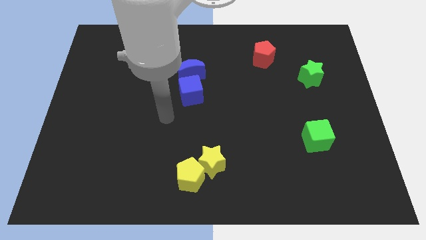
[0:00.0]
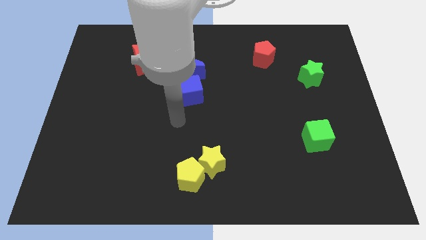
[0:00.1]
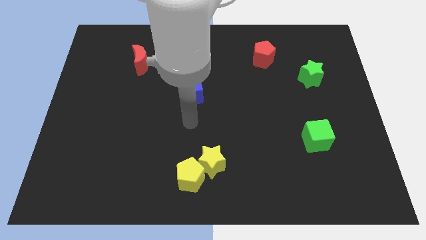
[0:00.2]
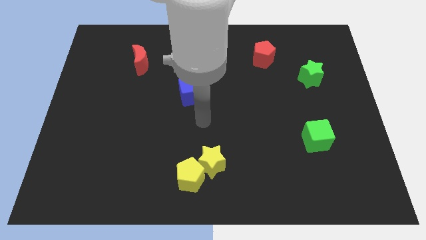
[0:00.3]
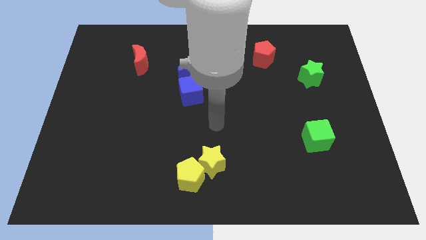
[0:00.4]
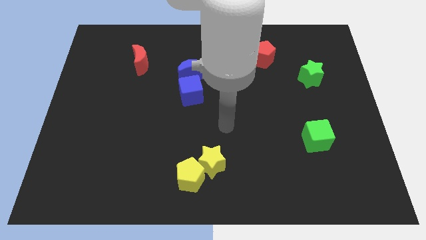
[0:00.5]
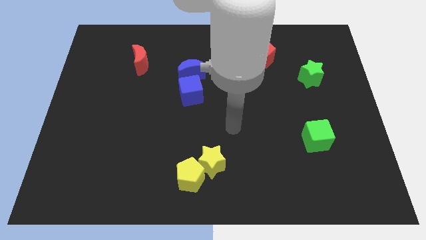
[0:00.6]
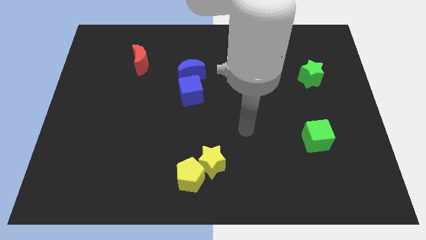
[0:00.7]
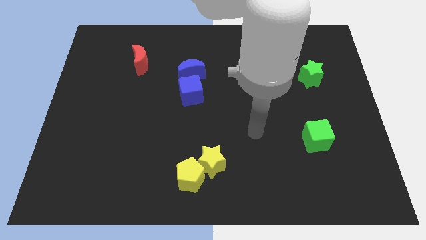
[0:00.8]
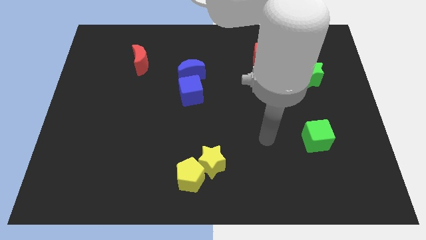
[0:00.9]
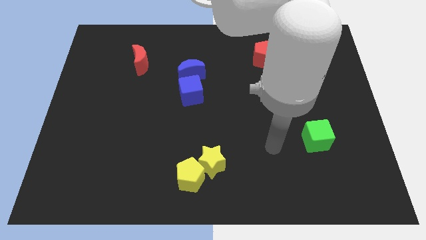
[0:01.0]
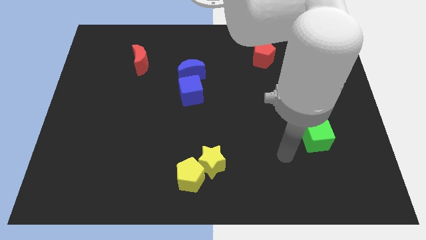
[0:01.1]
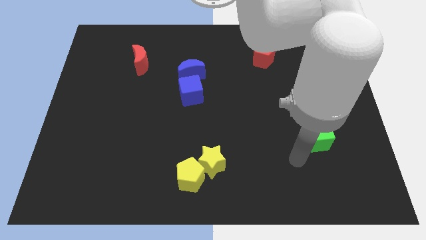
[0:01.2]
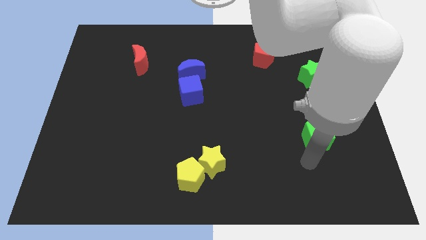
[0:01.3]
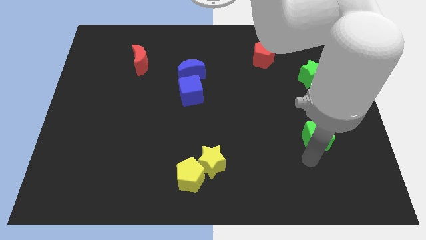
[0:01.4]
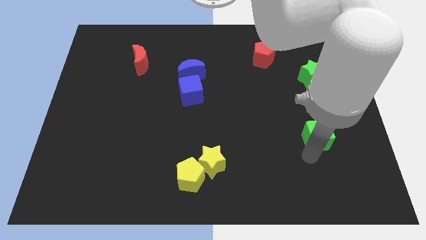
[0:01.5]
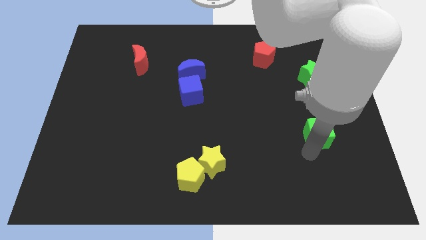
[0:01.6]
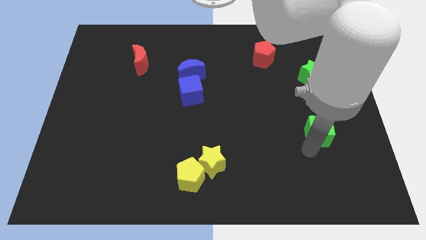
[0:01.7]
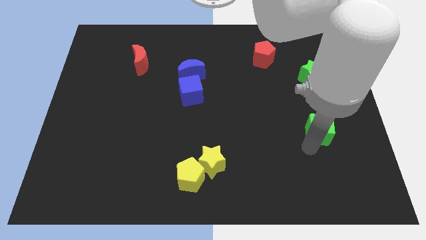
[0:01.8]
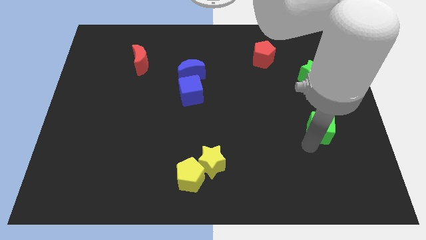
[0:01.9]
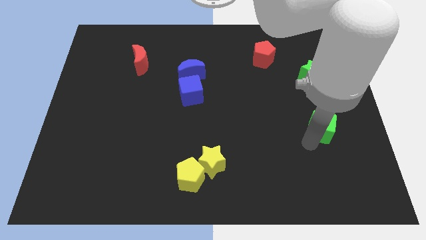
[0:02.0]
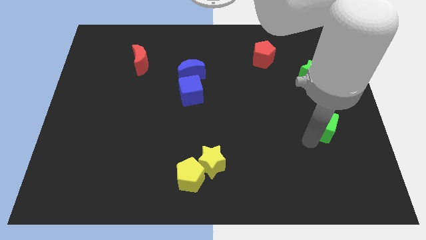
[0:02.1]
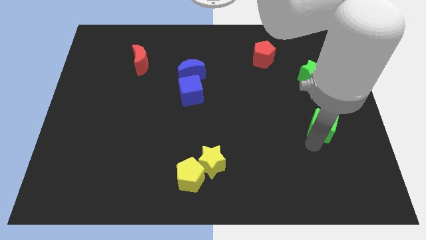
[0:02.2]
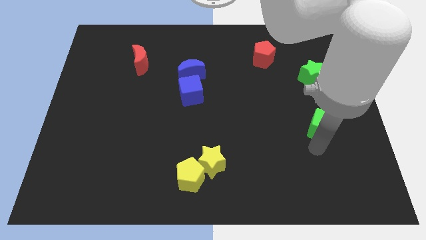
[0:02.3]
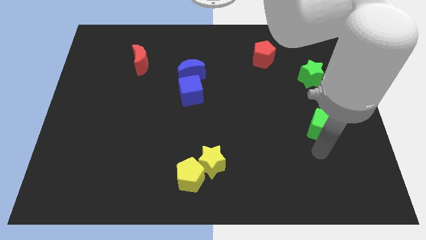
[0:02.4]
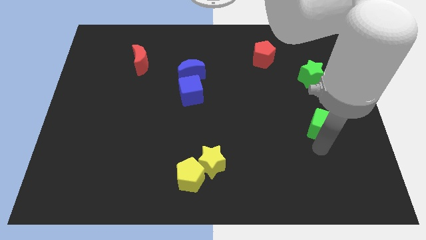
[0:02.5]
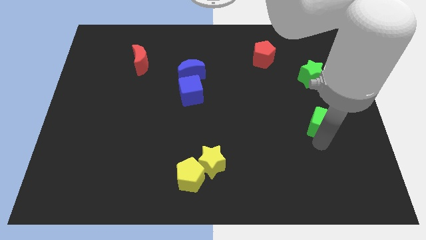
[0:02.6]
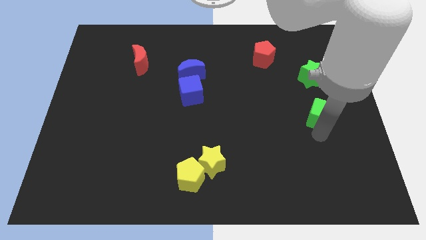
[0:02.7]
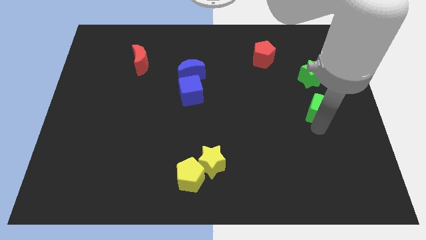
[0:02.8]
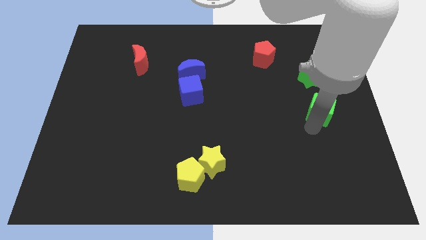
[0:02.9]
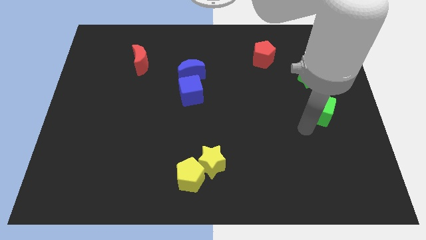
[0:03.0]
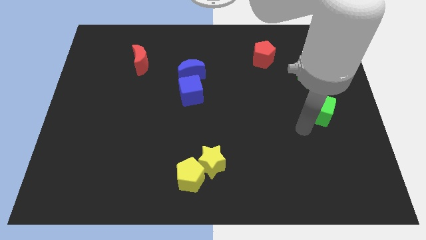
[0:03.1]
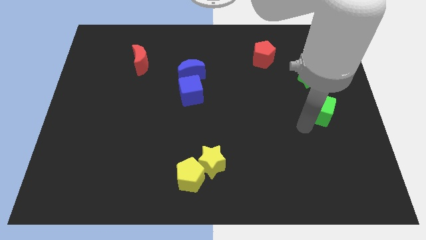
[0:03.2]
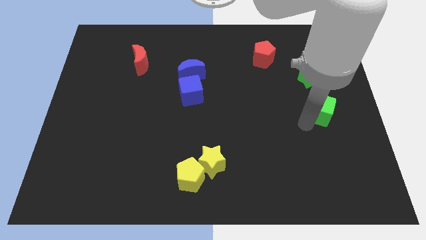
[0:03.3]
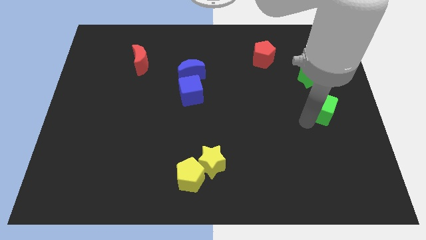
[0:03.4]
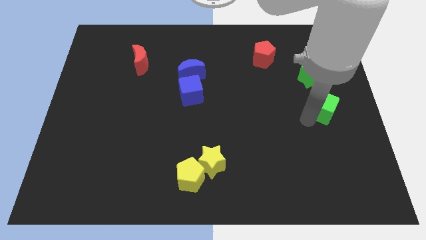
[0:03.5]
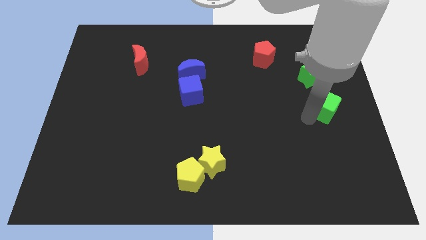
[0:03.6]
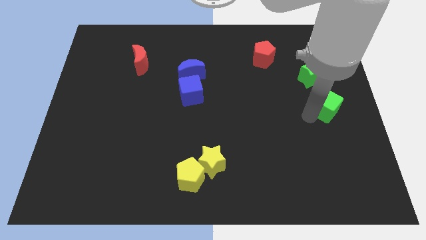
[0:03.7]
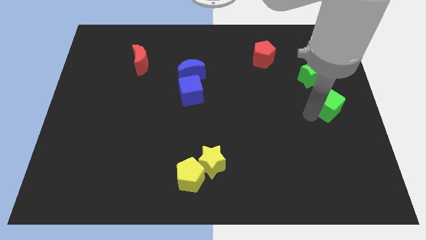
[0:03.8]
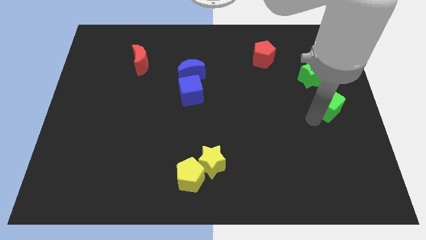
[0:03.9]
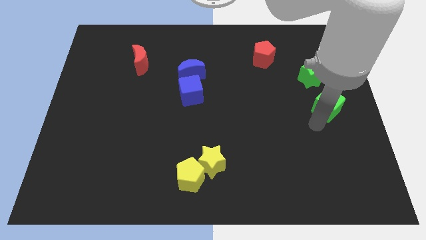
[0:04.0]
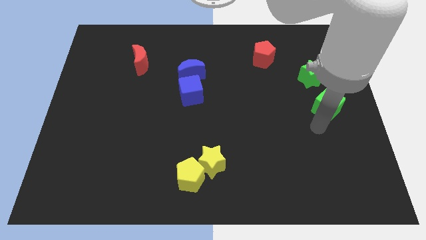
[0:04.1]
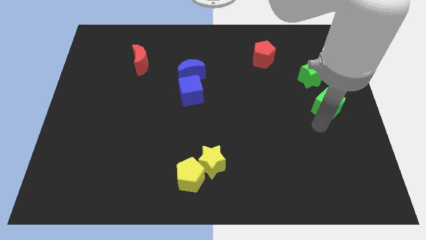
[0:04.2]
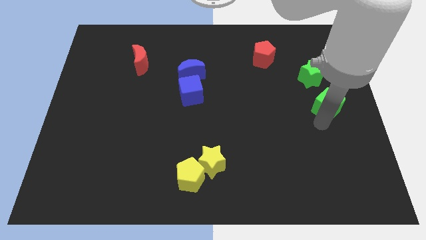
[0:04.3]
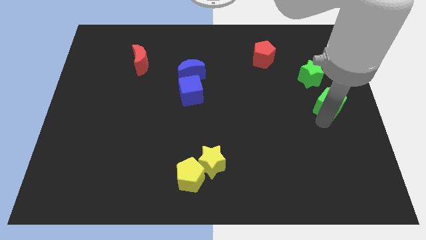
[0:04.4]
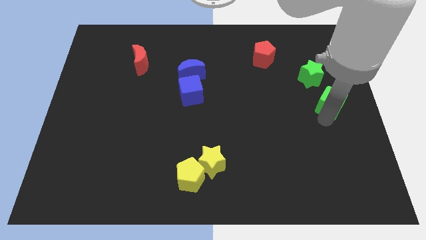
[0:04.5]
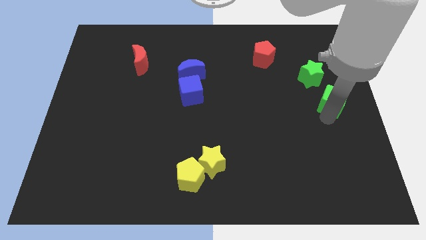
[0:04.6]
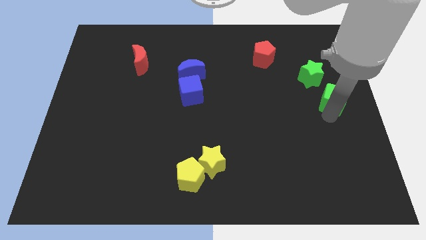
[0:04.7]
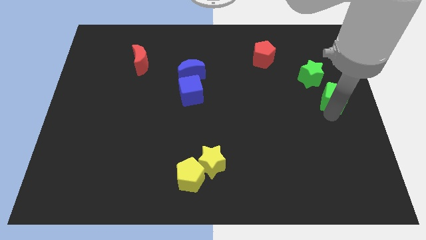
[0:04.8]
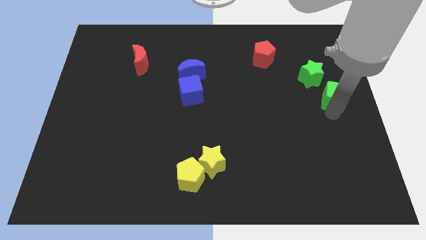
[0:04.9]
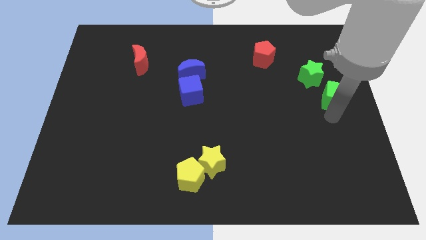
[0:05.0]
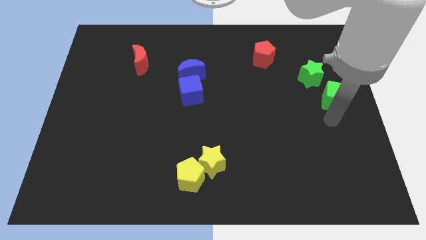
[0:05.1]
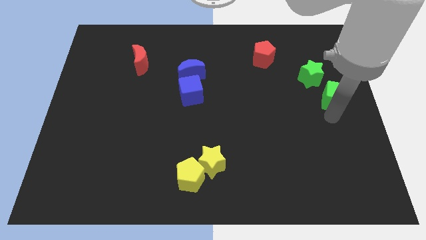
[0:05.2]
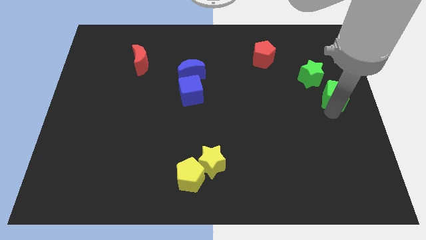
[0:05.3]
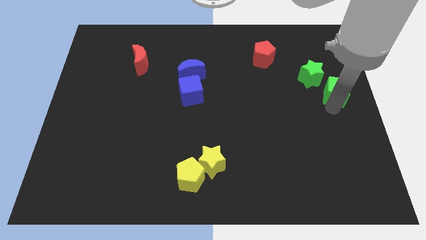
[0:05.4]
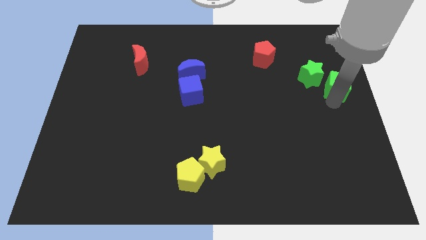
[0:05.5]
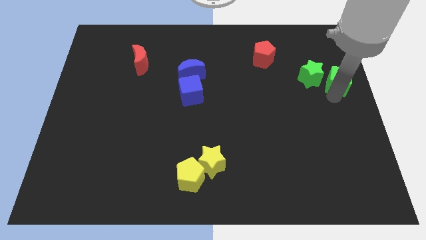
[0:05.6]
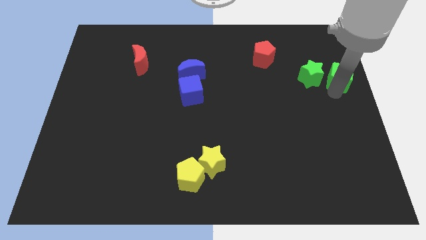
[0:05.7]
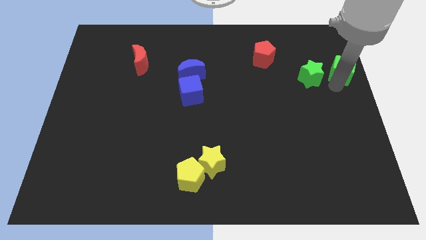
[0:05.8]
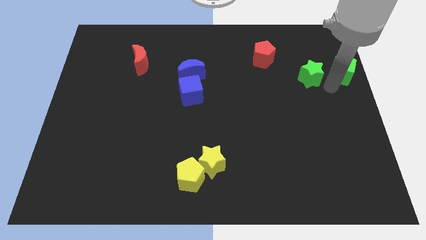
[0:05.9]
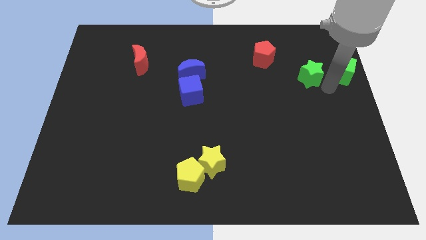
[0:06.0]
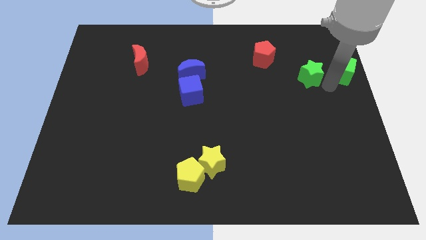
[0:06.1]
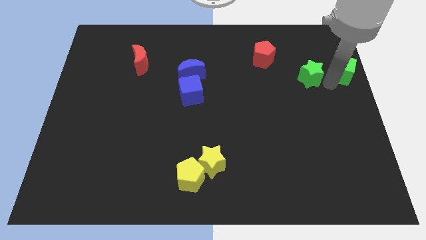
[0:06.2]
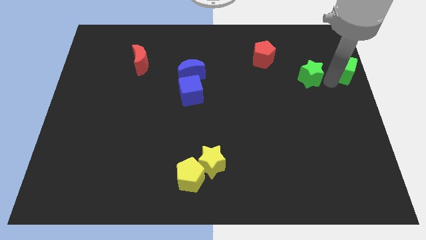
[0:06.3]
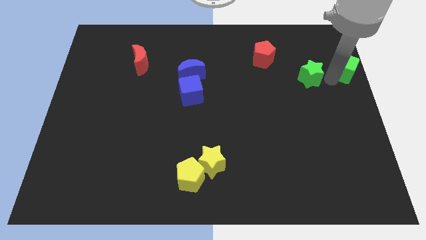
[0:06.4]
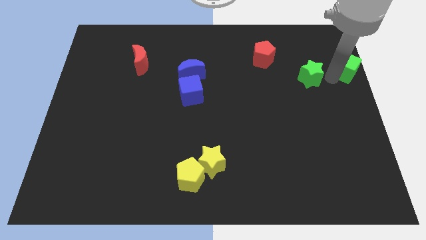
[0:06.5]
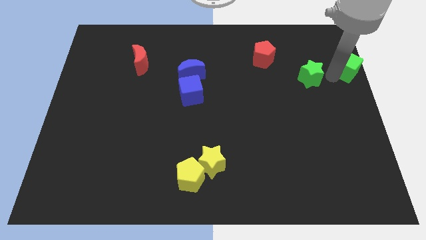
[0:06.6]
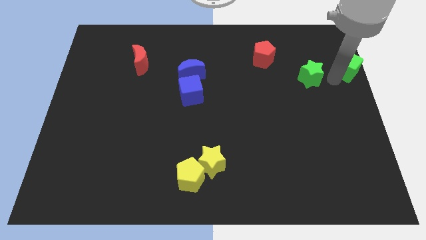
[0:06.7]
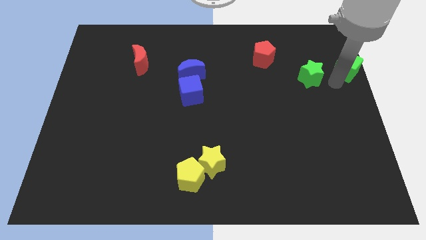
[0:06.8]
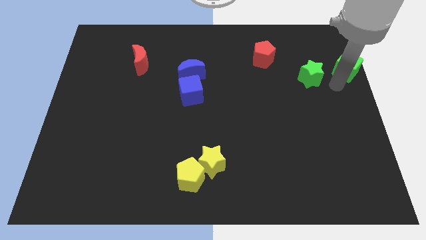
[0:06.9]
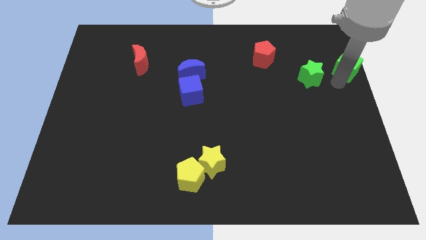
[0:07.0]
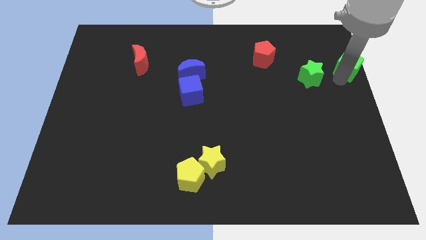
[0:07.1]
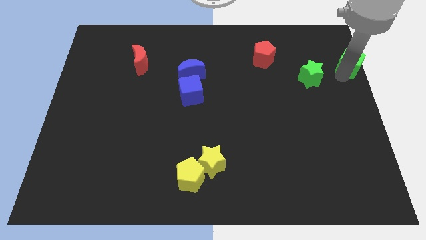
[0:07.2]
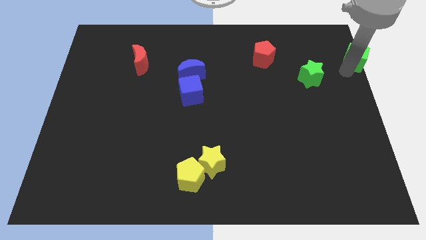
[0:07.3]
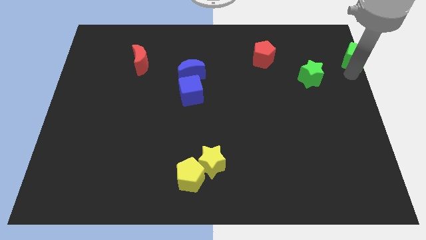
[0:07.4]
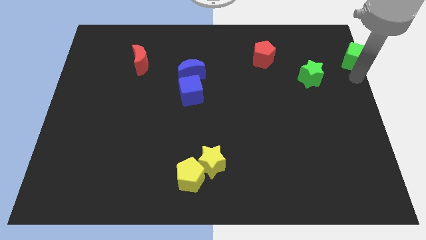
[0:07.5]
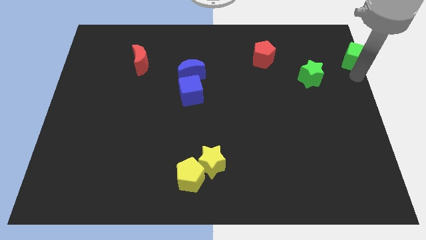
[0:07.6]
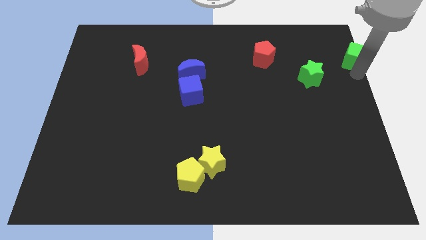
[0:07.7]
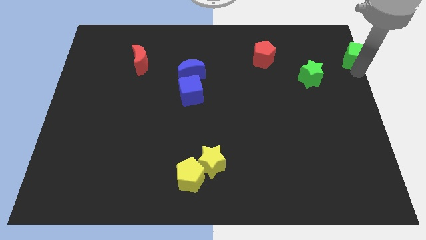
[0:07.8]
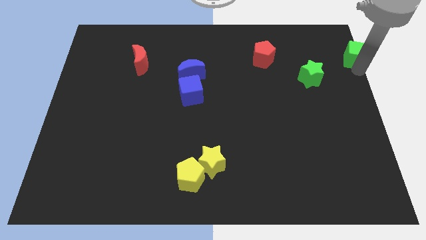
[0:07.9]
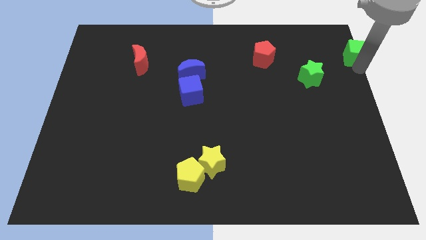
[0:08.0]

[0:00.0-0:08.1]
move the green cube to the upper right corner
